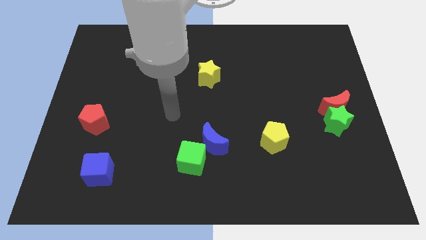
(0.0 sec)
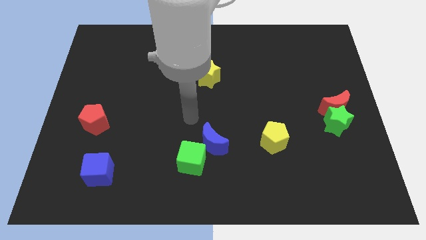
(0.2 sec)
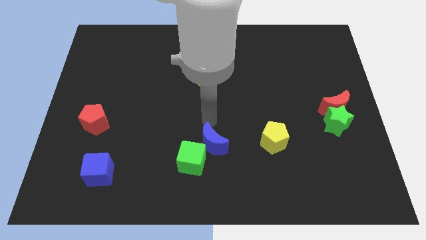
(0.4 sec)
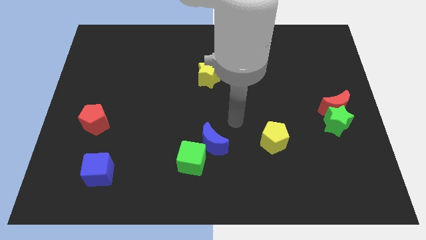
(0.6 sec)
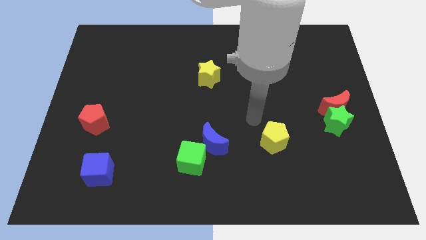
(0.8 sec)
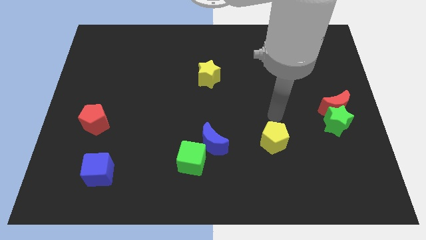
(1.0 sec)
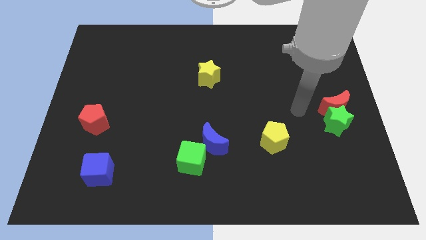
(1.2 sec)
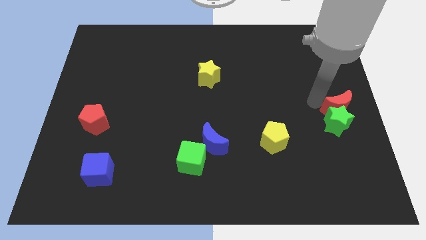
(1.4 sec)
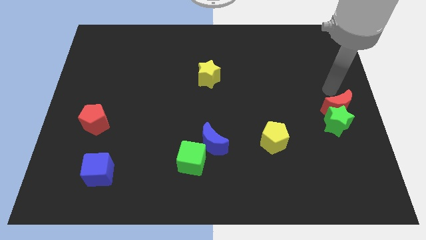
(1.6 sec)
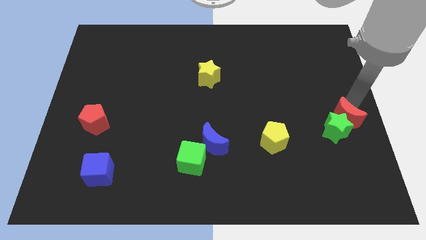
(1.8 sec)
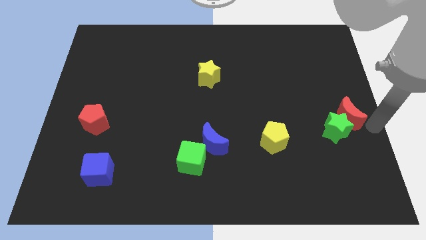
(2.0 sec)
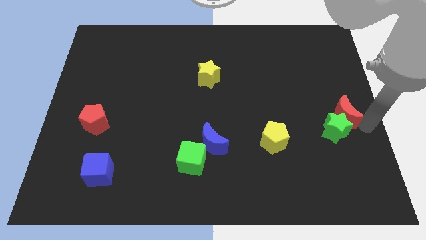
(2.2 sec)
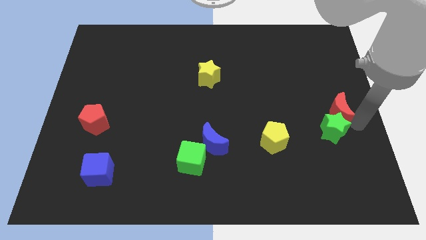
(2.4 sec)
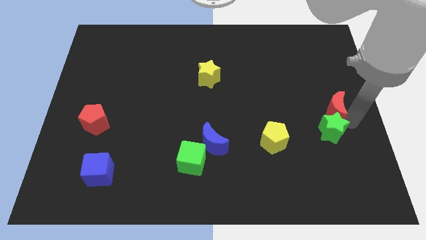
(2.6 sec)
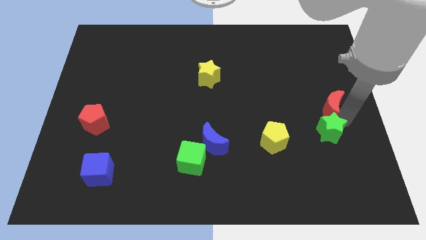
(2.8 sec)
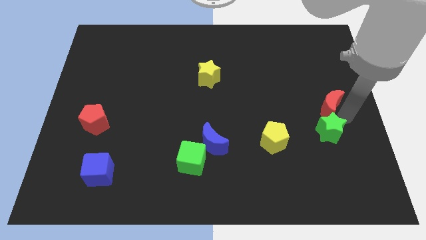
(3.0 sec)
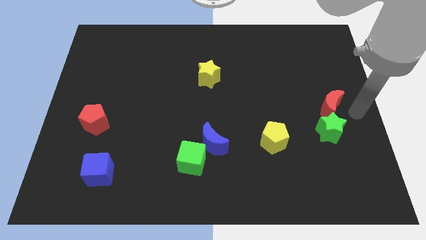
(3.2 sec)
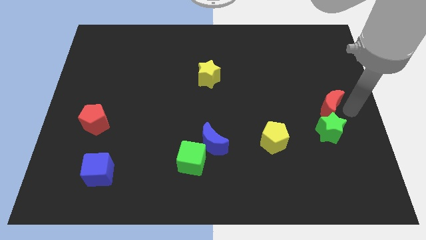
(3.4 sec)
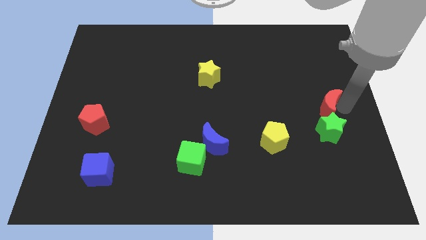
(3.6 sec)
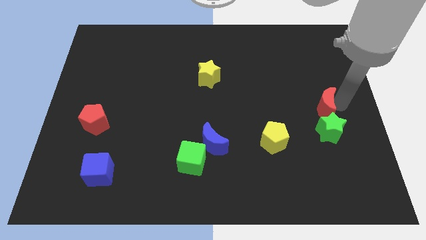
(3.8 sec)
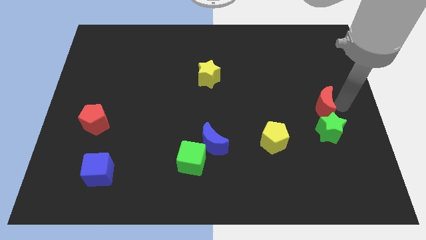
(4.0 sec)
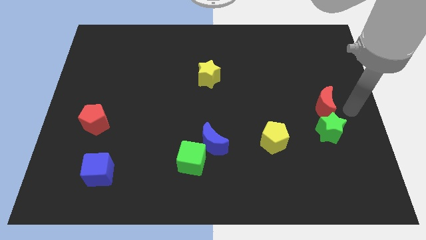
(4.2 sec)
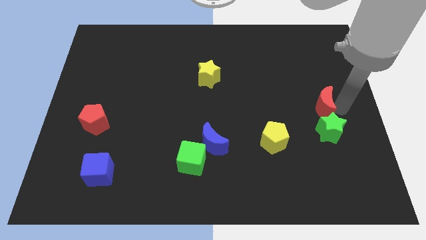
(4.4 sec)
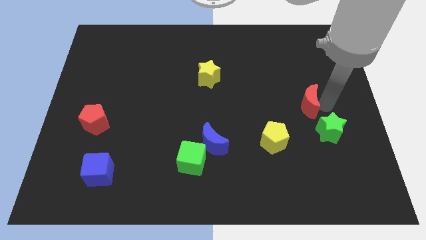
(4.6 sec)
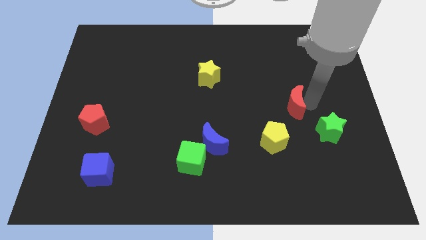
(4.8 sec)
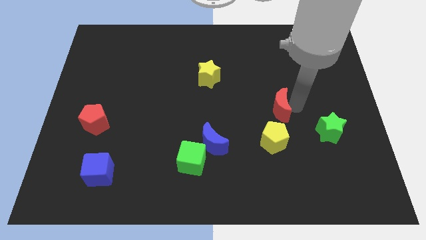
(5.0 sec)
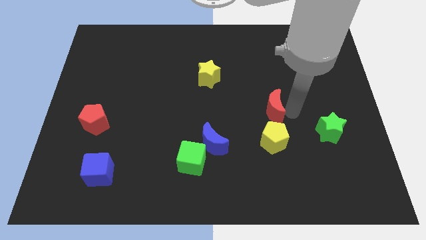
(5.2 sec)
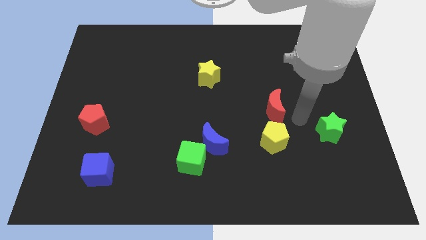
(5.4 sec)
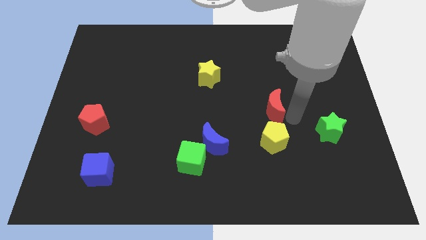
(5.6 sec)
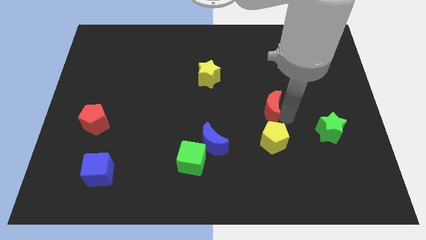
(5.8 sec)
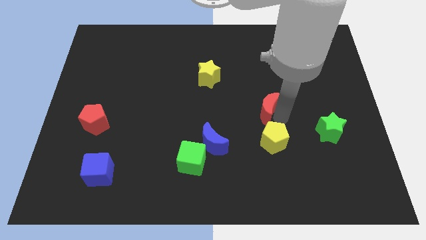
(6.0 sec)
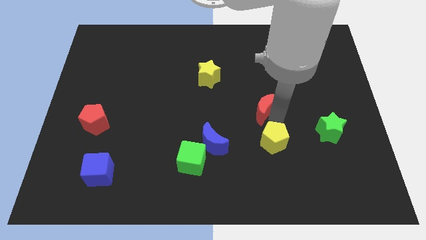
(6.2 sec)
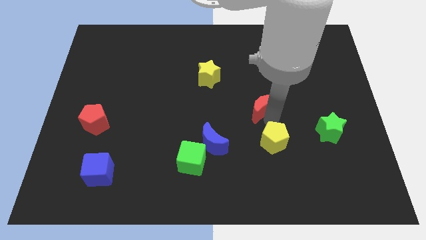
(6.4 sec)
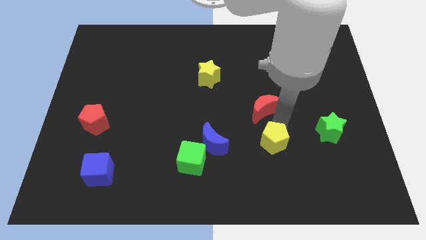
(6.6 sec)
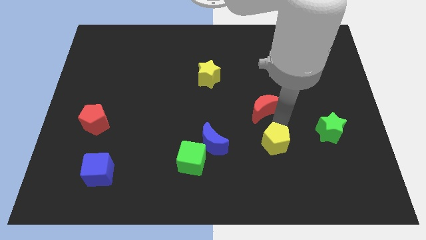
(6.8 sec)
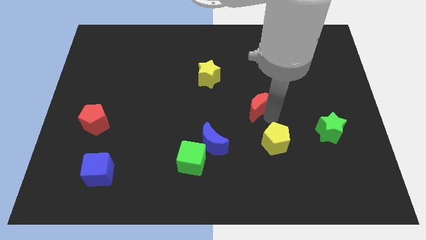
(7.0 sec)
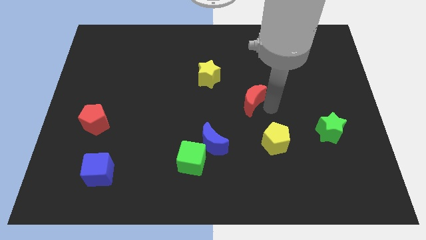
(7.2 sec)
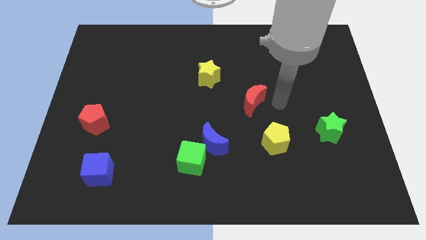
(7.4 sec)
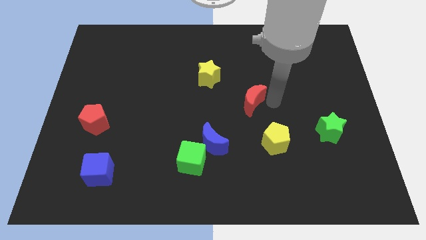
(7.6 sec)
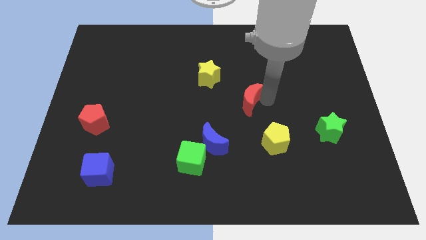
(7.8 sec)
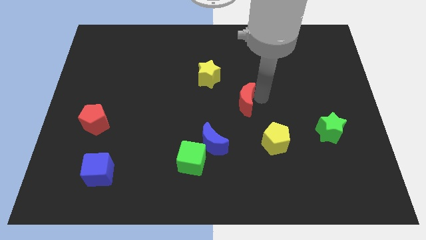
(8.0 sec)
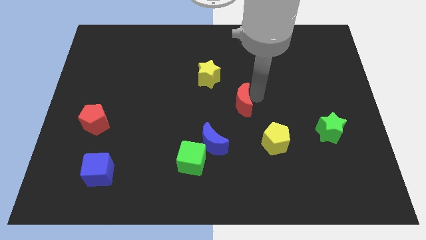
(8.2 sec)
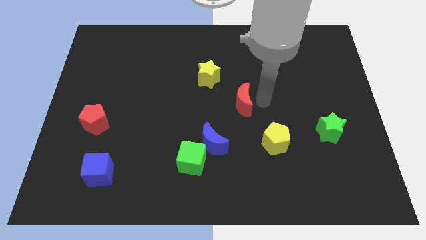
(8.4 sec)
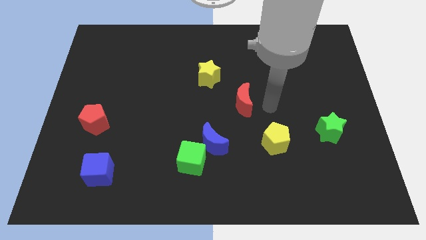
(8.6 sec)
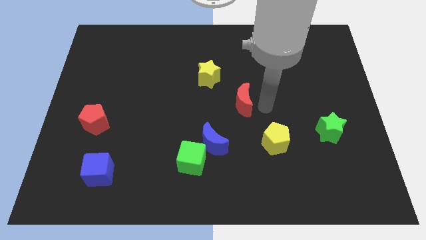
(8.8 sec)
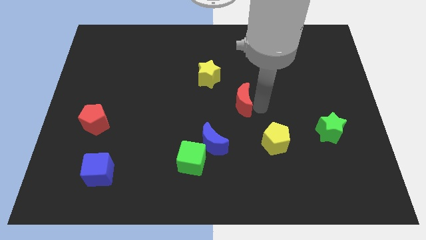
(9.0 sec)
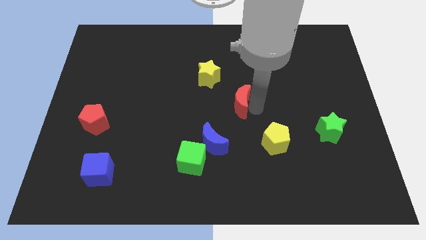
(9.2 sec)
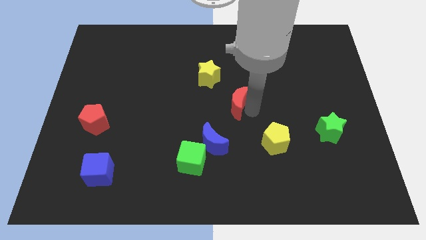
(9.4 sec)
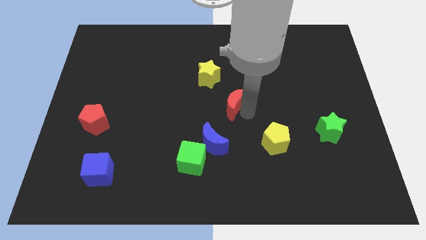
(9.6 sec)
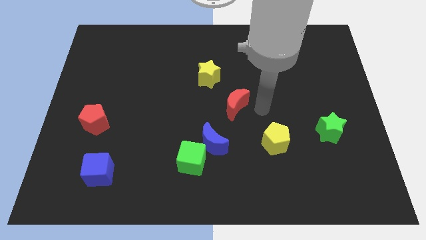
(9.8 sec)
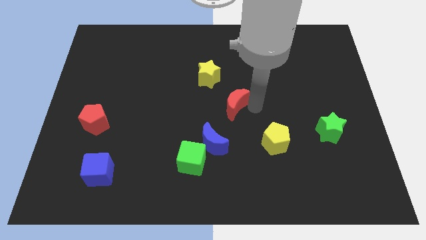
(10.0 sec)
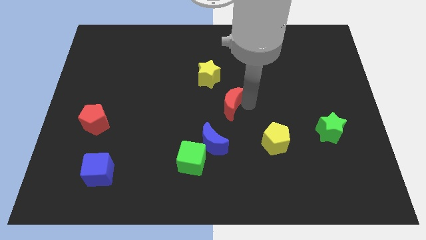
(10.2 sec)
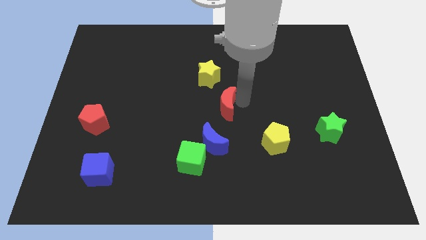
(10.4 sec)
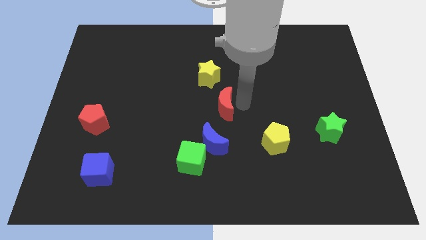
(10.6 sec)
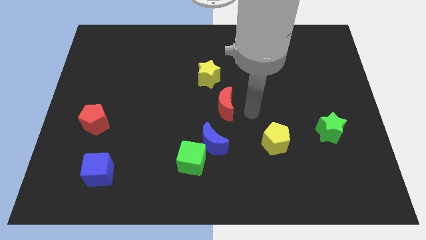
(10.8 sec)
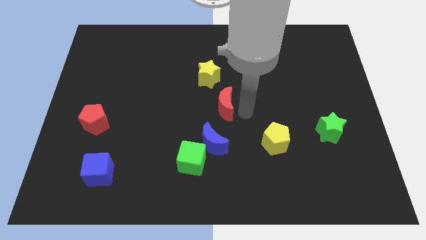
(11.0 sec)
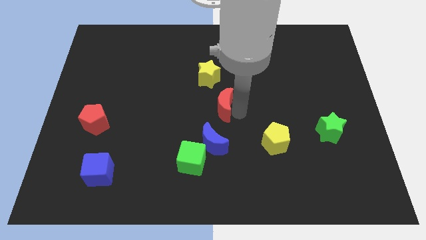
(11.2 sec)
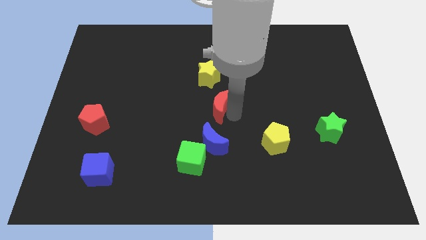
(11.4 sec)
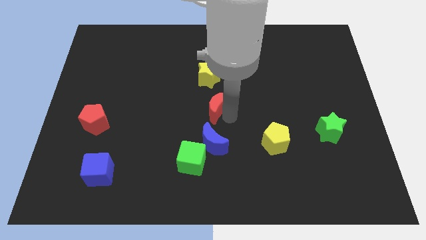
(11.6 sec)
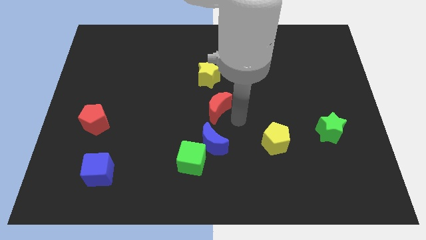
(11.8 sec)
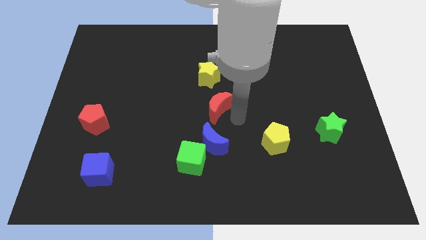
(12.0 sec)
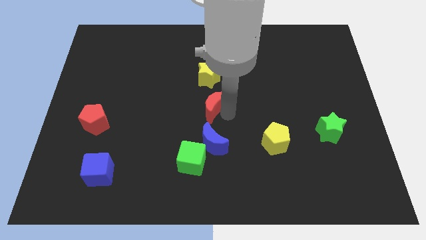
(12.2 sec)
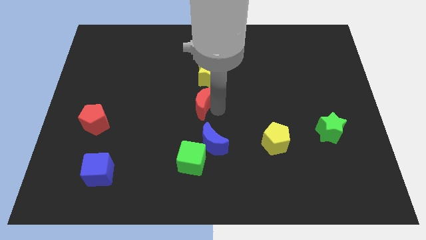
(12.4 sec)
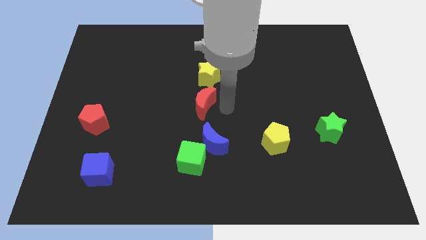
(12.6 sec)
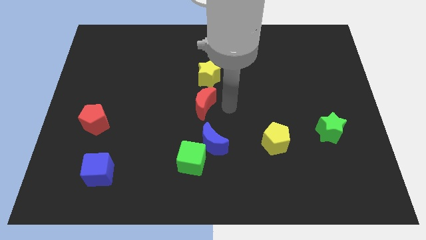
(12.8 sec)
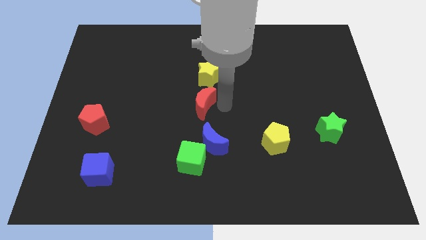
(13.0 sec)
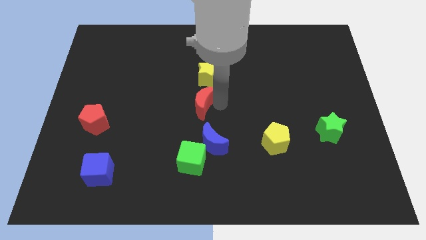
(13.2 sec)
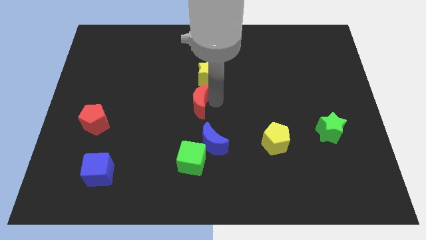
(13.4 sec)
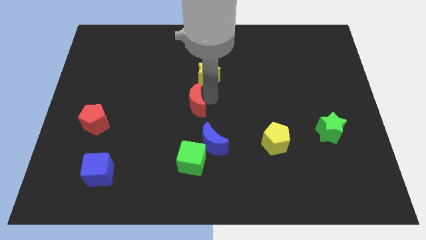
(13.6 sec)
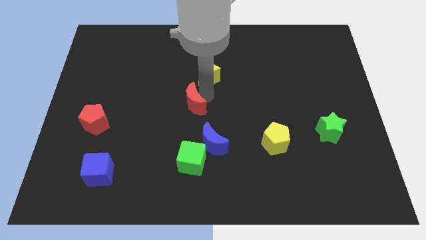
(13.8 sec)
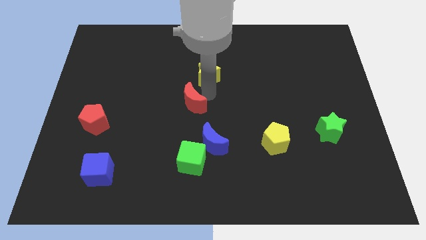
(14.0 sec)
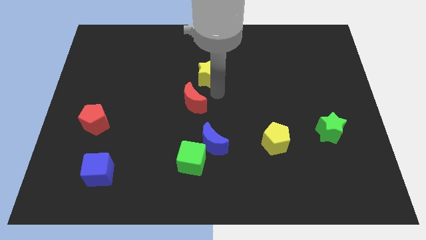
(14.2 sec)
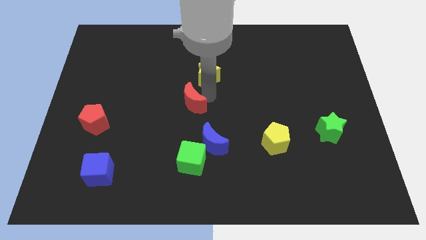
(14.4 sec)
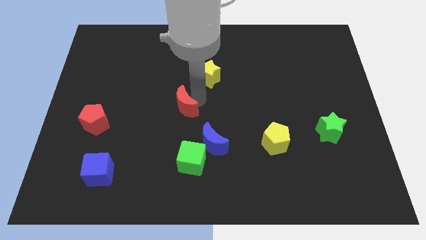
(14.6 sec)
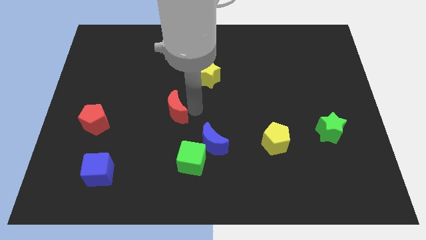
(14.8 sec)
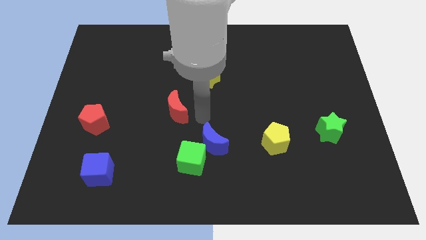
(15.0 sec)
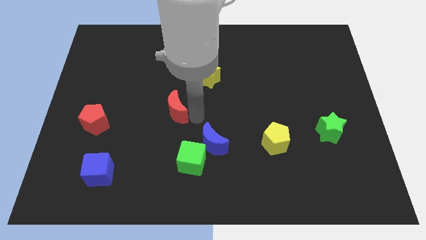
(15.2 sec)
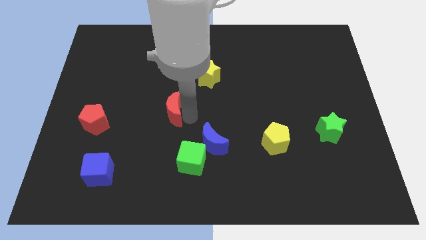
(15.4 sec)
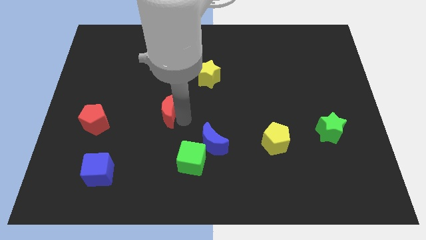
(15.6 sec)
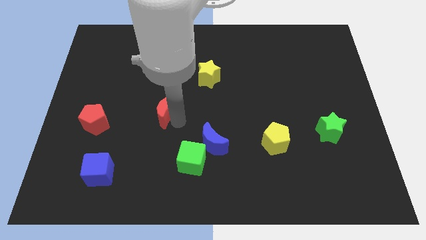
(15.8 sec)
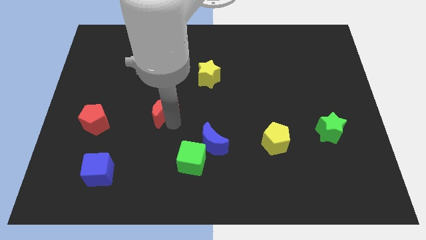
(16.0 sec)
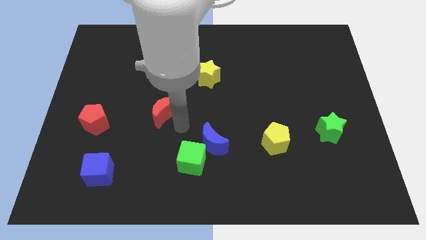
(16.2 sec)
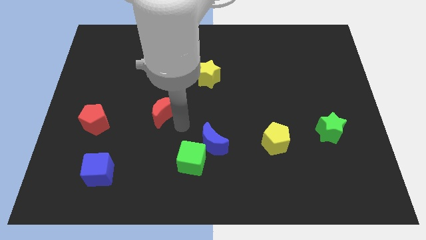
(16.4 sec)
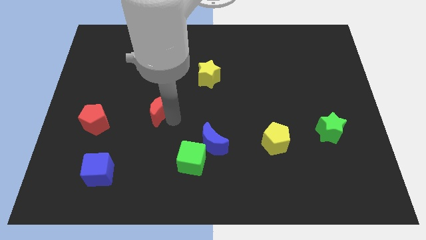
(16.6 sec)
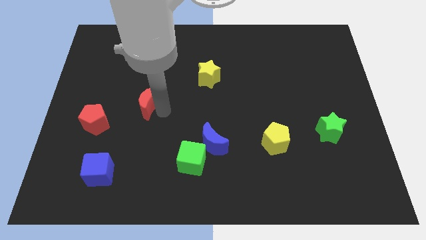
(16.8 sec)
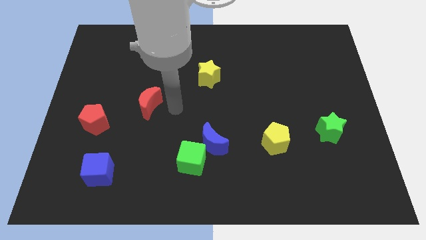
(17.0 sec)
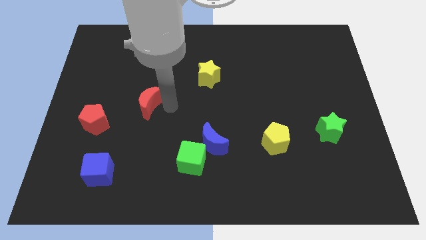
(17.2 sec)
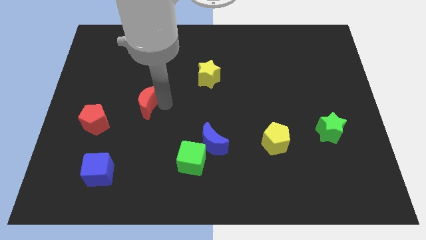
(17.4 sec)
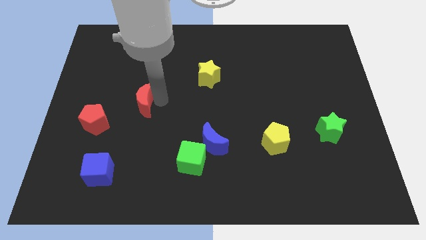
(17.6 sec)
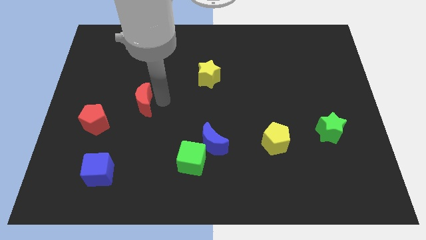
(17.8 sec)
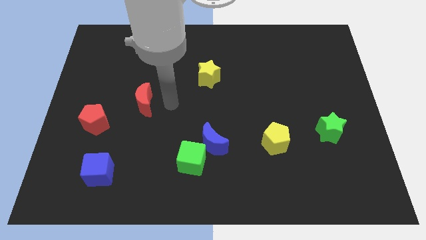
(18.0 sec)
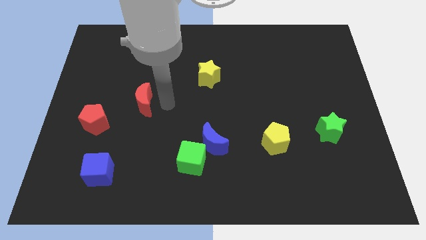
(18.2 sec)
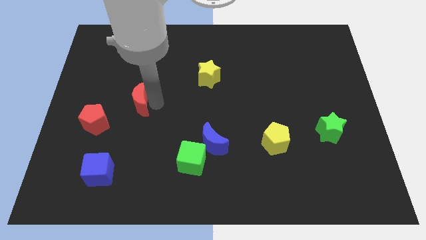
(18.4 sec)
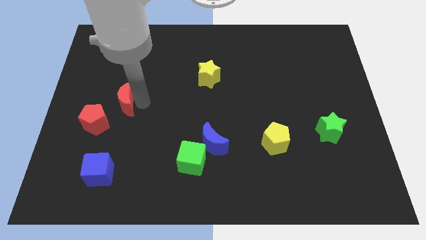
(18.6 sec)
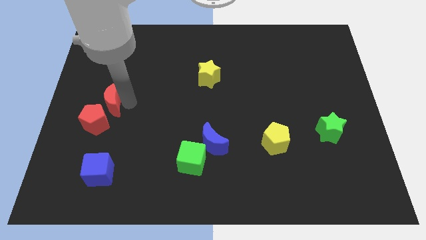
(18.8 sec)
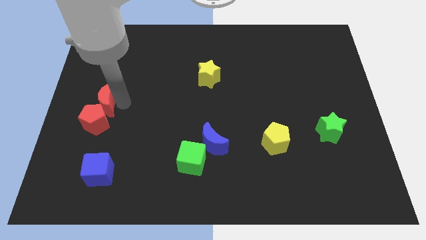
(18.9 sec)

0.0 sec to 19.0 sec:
slide the red moon to the center left
